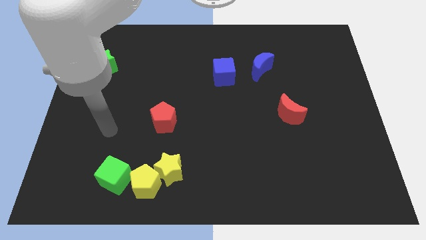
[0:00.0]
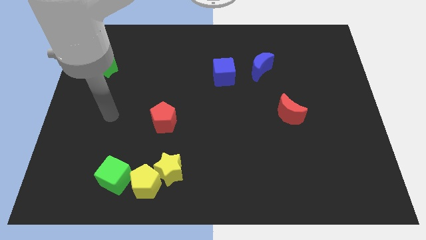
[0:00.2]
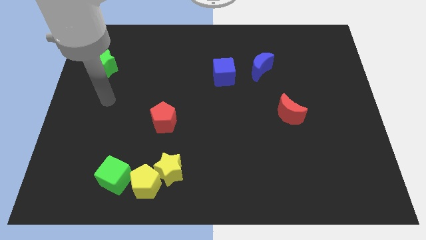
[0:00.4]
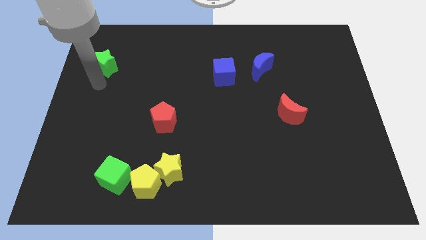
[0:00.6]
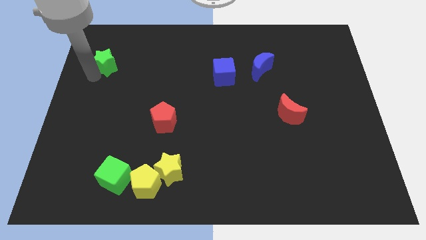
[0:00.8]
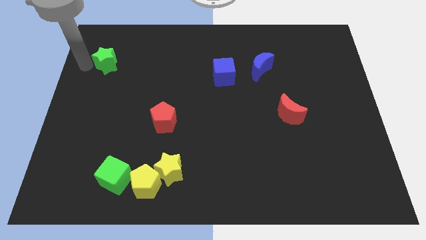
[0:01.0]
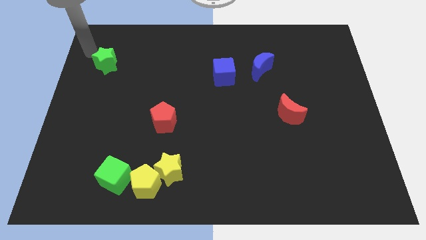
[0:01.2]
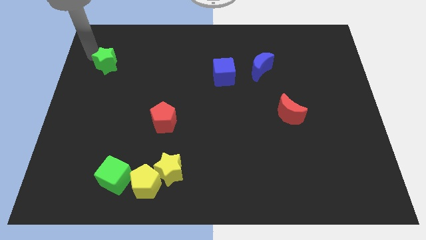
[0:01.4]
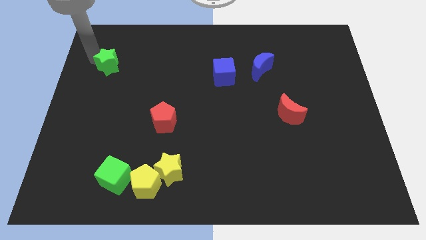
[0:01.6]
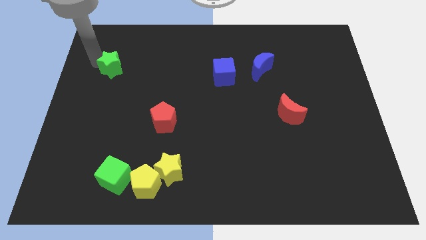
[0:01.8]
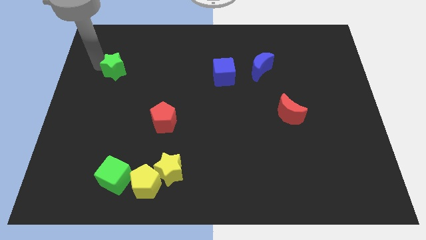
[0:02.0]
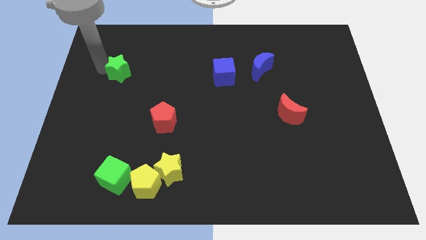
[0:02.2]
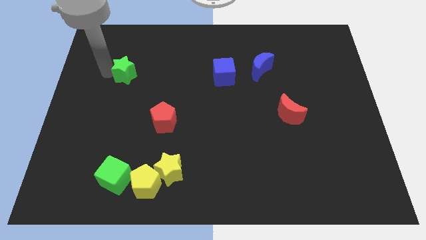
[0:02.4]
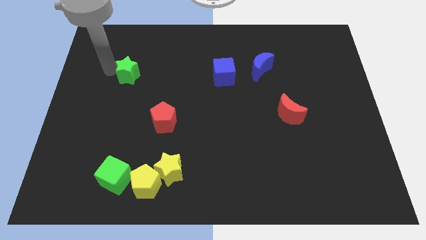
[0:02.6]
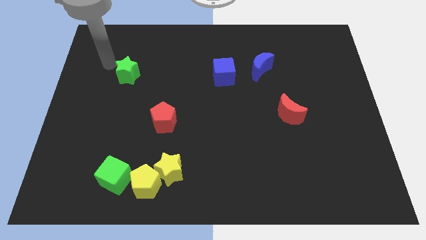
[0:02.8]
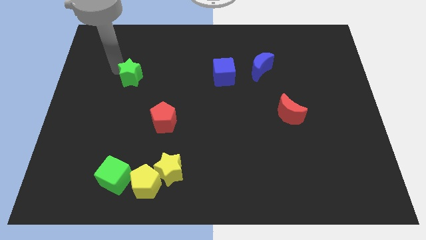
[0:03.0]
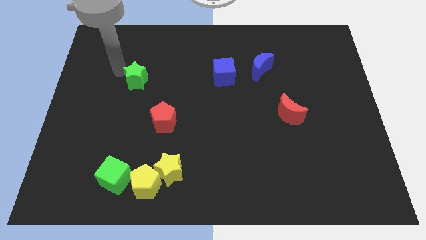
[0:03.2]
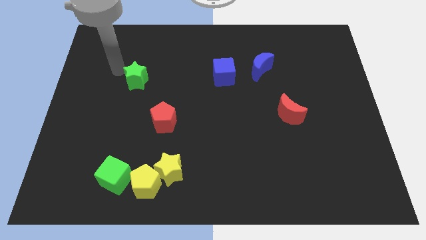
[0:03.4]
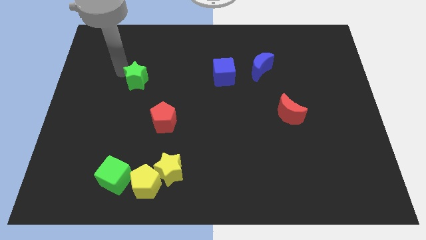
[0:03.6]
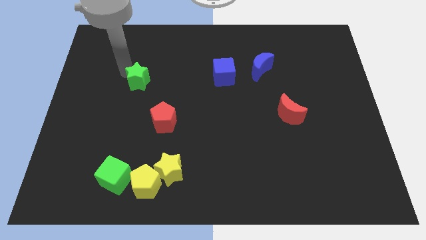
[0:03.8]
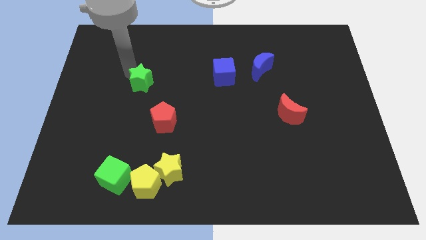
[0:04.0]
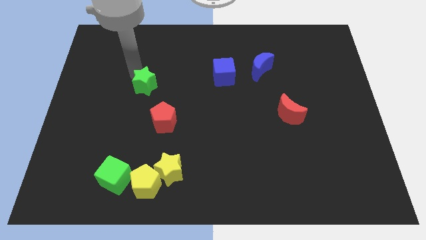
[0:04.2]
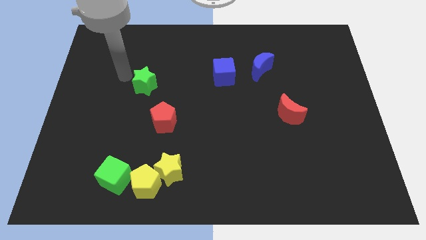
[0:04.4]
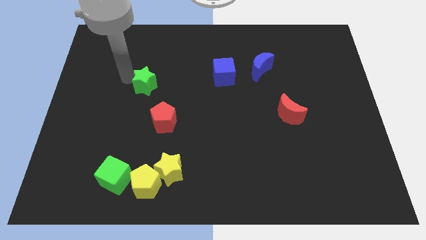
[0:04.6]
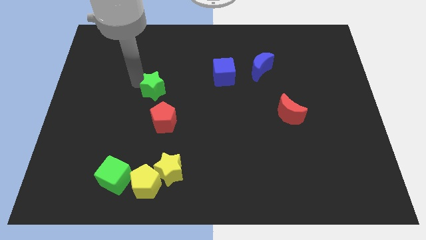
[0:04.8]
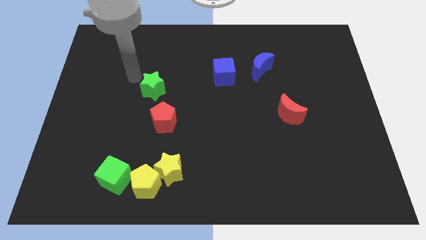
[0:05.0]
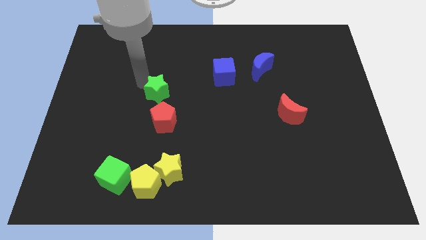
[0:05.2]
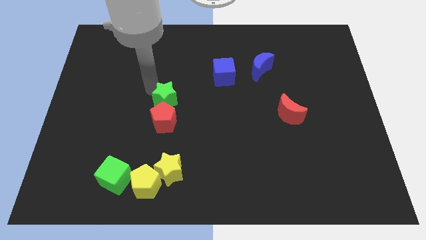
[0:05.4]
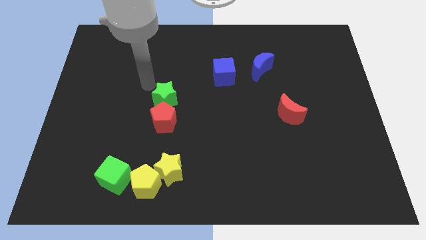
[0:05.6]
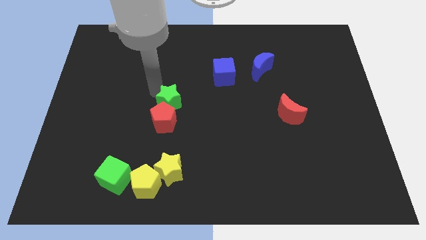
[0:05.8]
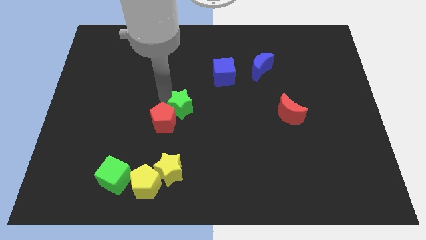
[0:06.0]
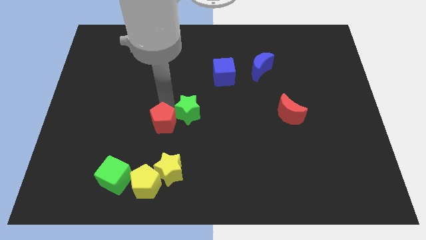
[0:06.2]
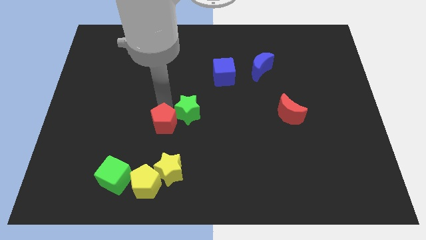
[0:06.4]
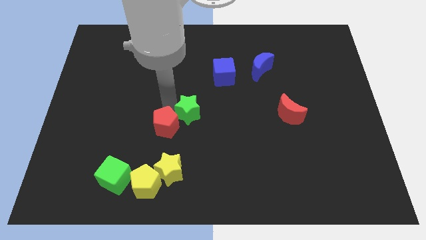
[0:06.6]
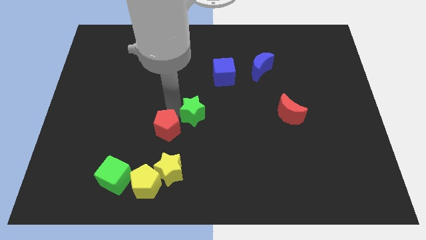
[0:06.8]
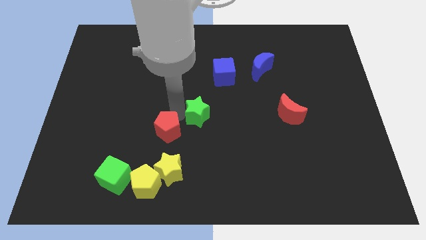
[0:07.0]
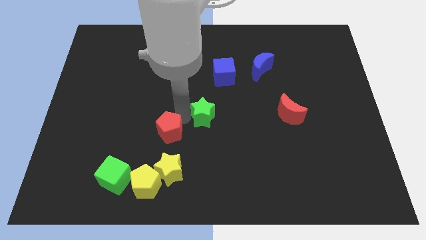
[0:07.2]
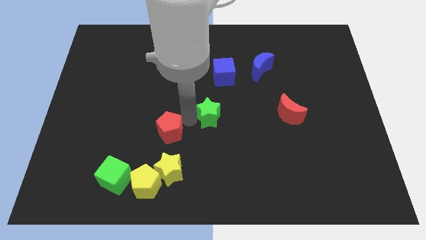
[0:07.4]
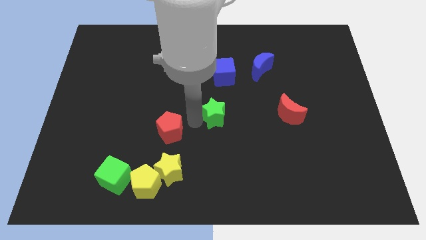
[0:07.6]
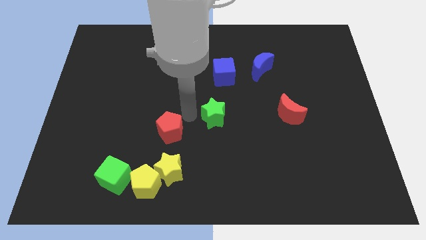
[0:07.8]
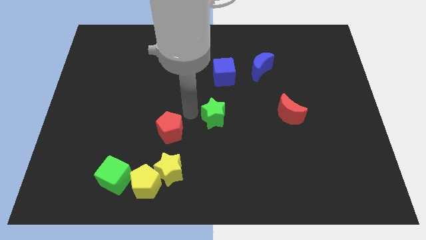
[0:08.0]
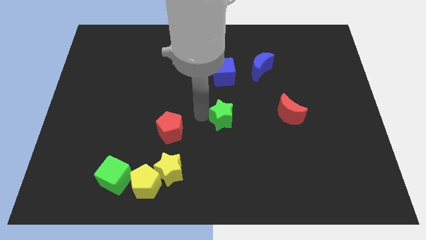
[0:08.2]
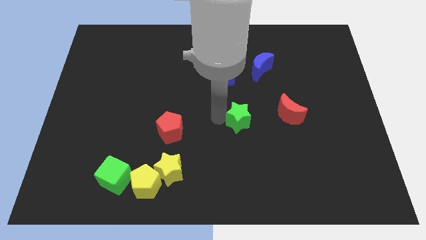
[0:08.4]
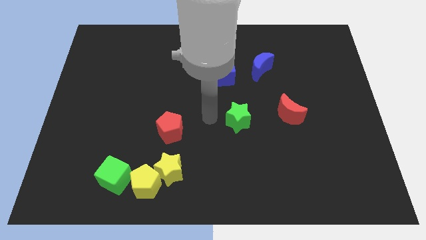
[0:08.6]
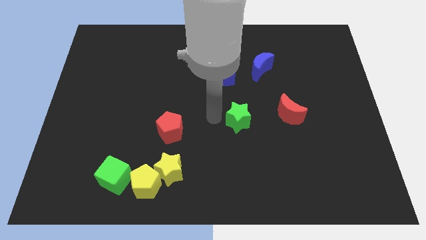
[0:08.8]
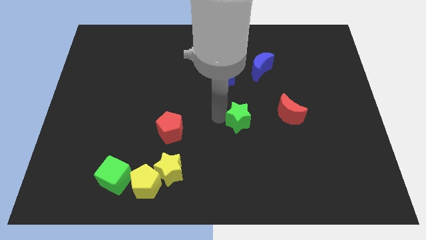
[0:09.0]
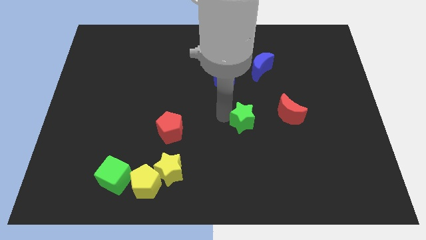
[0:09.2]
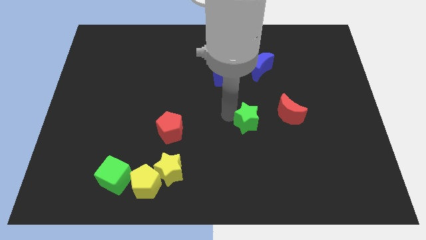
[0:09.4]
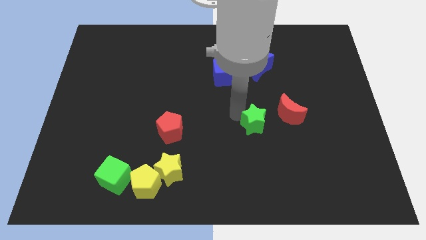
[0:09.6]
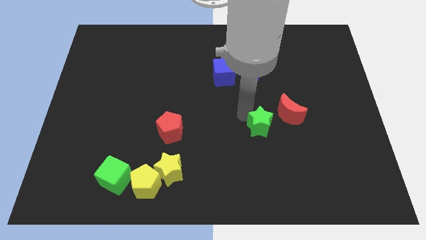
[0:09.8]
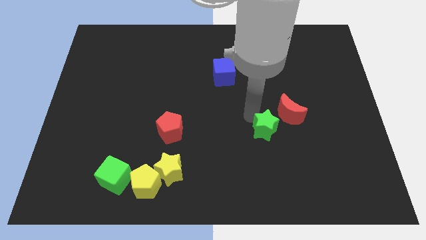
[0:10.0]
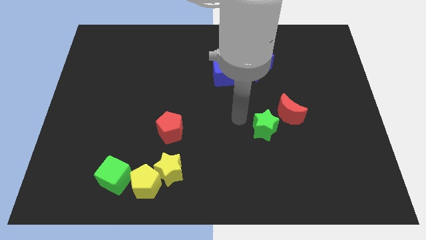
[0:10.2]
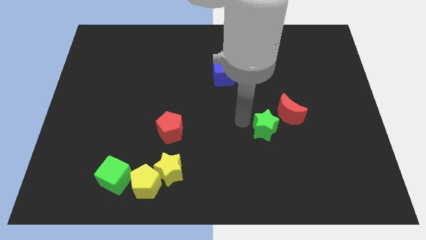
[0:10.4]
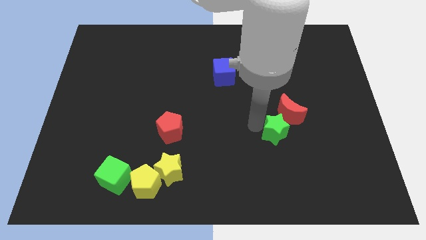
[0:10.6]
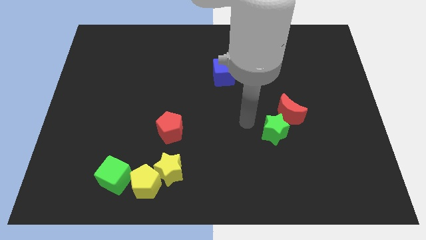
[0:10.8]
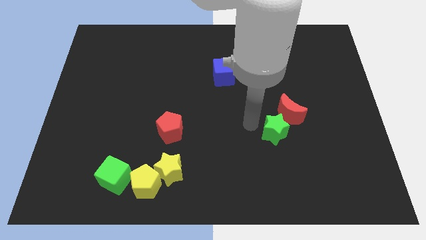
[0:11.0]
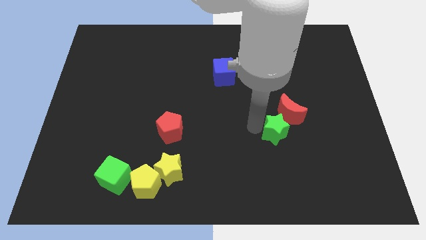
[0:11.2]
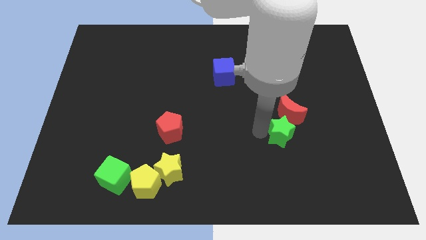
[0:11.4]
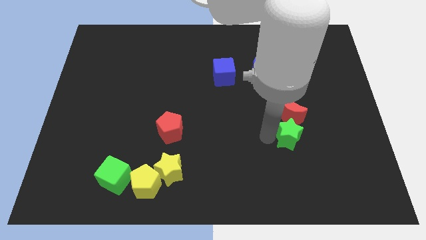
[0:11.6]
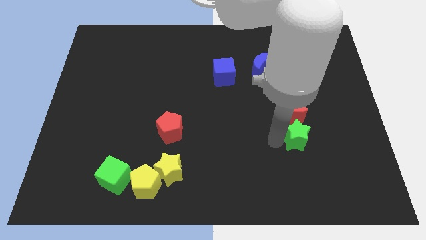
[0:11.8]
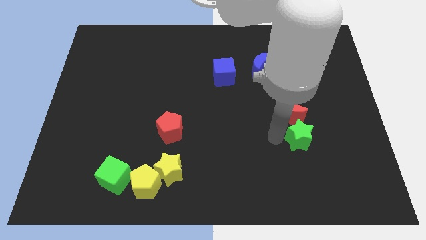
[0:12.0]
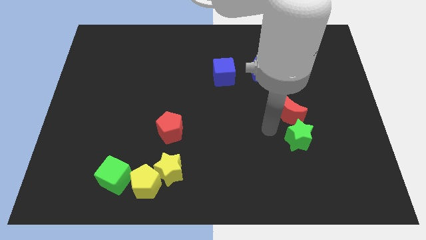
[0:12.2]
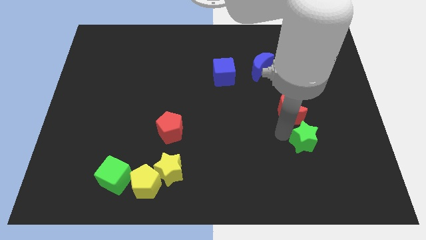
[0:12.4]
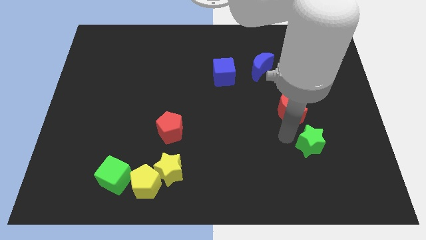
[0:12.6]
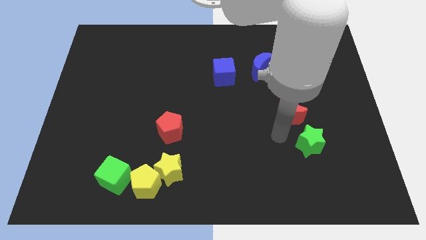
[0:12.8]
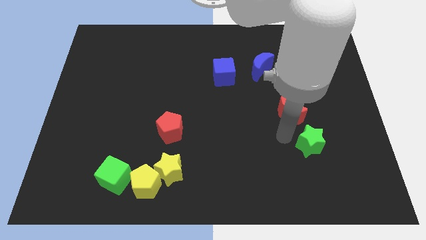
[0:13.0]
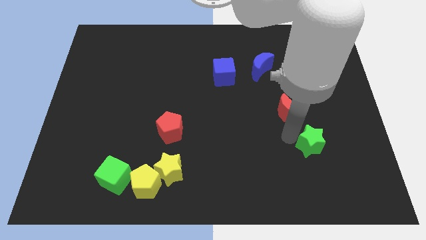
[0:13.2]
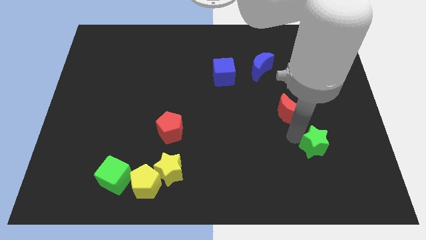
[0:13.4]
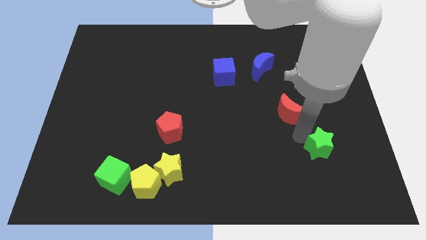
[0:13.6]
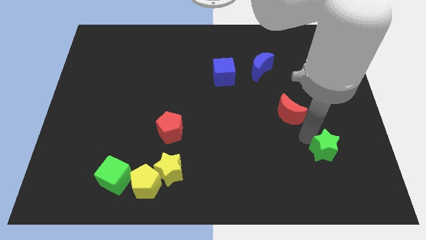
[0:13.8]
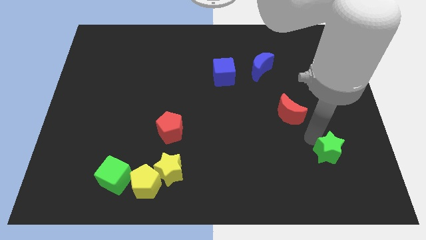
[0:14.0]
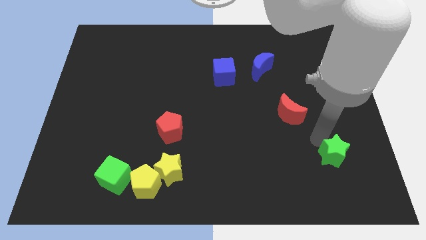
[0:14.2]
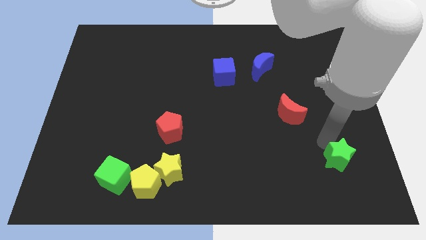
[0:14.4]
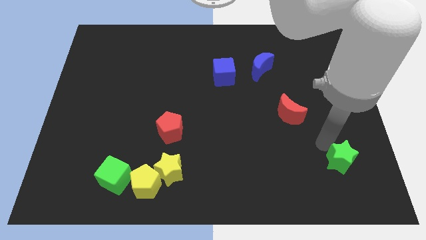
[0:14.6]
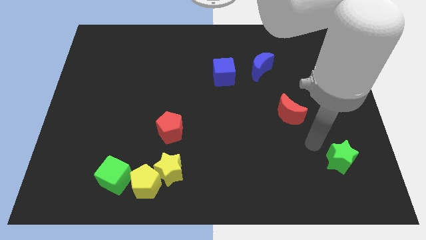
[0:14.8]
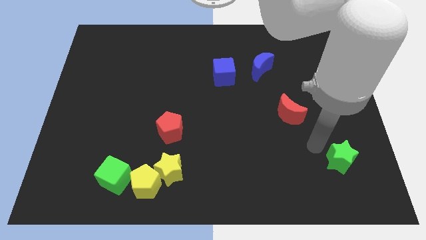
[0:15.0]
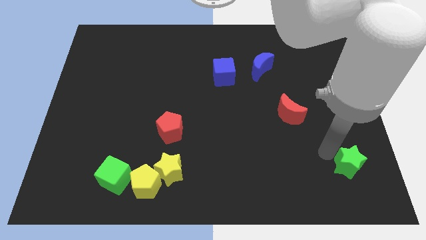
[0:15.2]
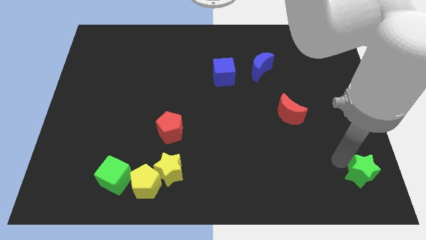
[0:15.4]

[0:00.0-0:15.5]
slide the green star to the bottom right
